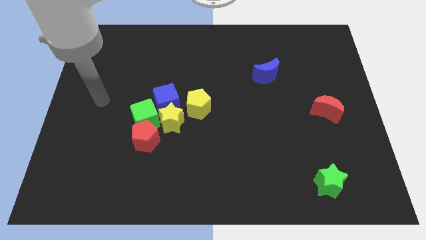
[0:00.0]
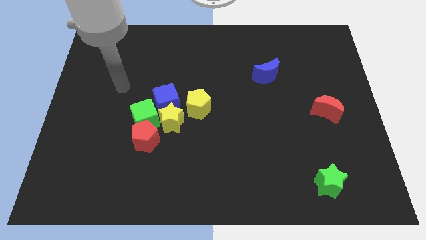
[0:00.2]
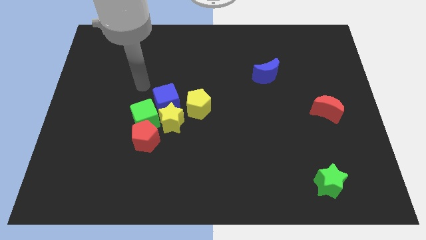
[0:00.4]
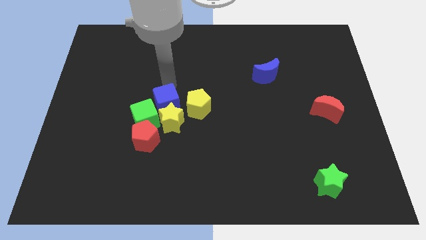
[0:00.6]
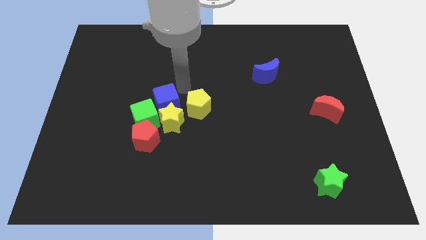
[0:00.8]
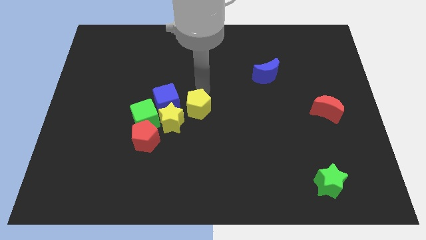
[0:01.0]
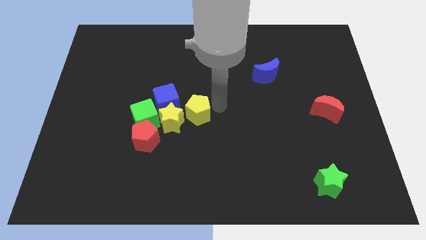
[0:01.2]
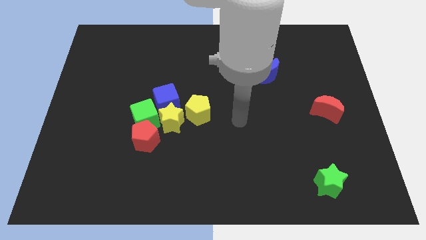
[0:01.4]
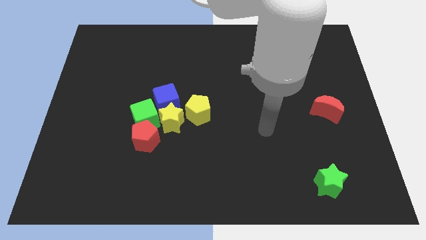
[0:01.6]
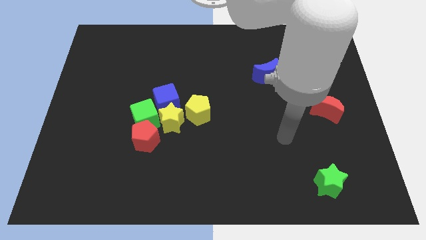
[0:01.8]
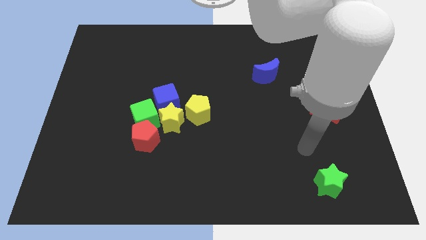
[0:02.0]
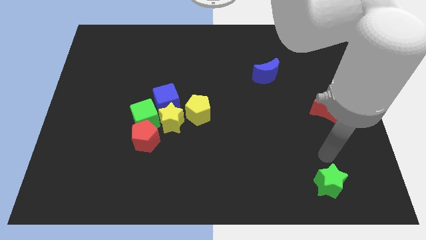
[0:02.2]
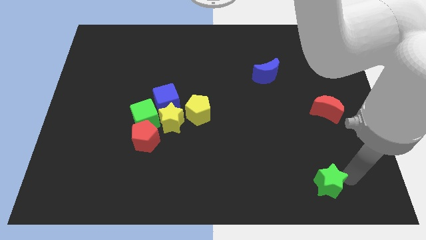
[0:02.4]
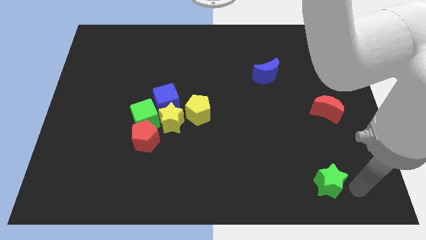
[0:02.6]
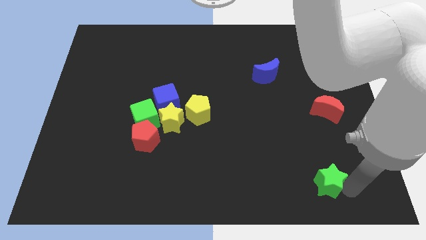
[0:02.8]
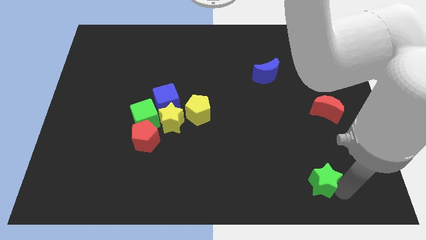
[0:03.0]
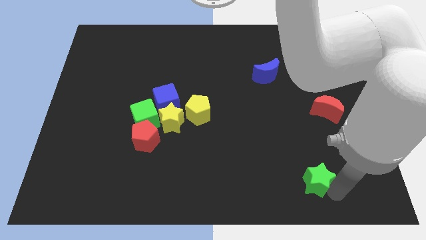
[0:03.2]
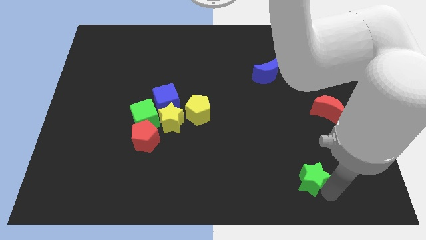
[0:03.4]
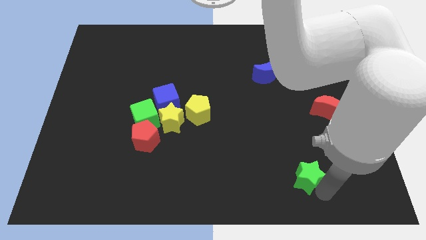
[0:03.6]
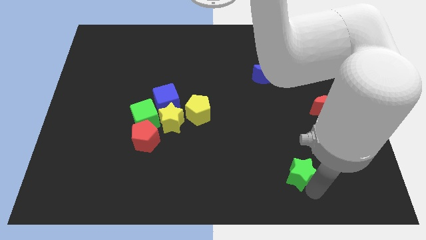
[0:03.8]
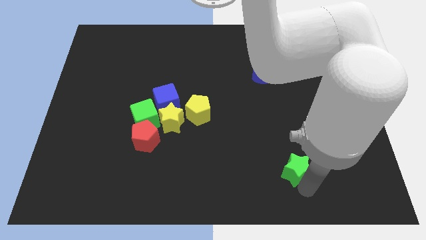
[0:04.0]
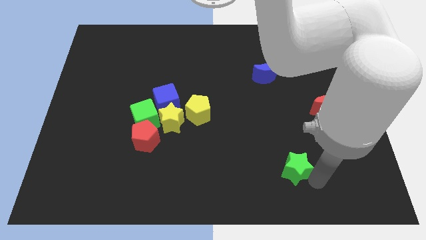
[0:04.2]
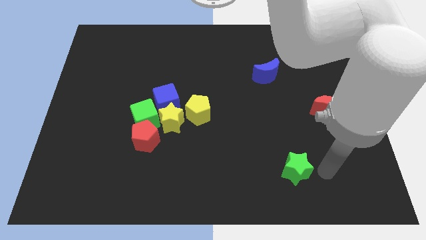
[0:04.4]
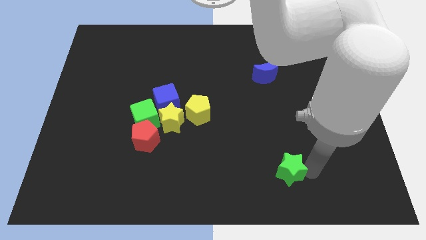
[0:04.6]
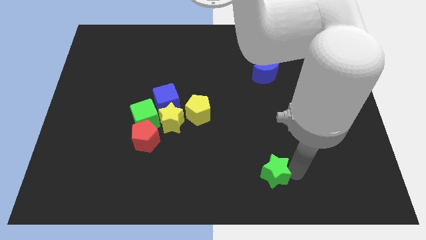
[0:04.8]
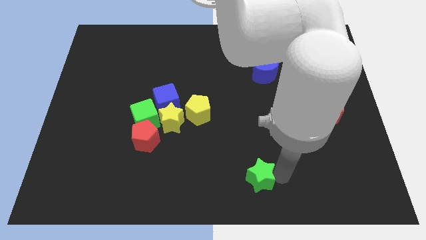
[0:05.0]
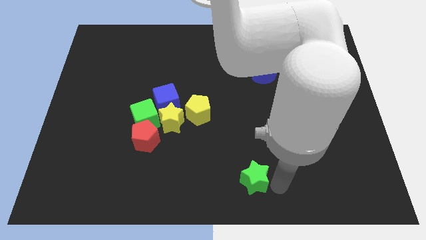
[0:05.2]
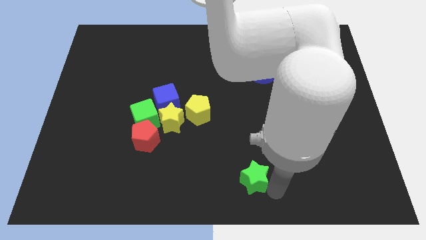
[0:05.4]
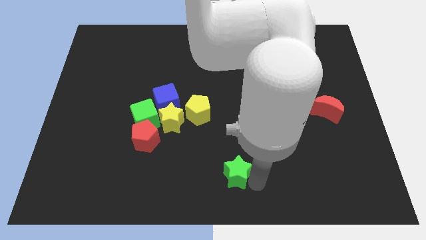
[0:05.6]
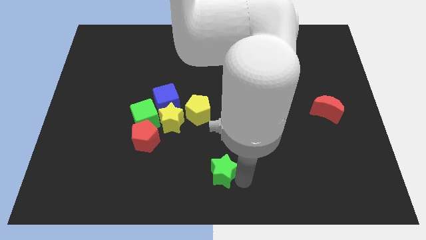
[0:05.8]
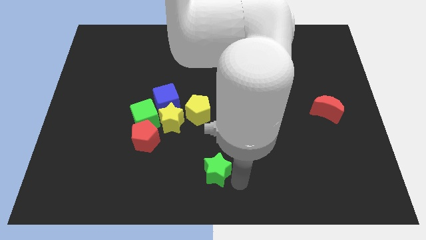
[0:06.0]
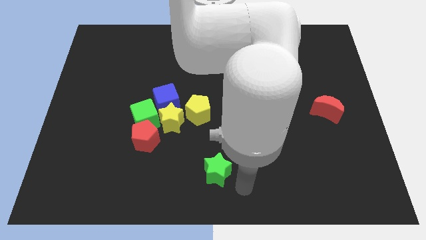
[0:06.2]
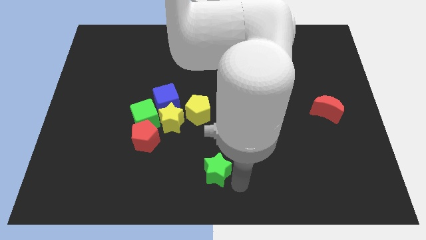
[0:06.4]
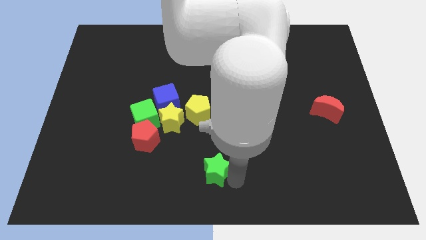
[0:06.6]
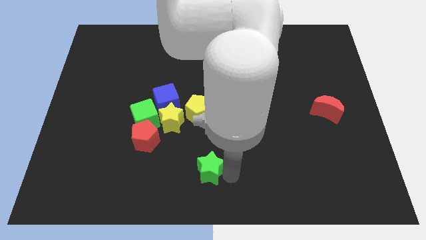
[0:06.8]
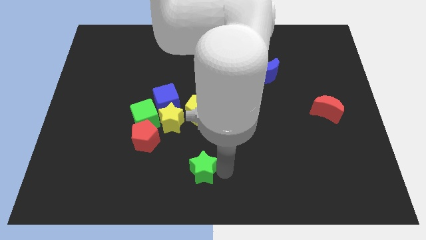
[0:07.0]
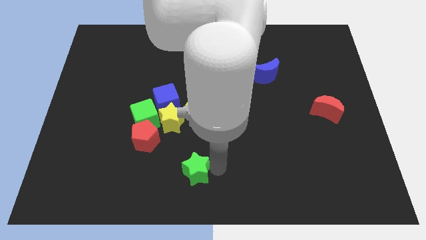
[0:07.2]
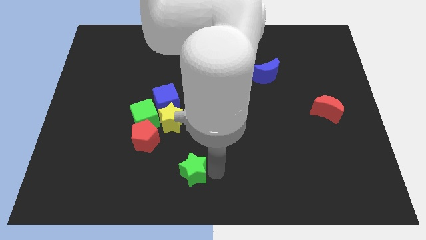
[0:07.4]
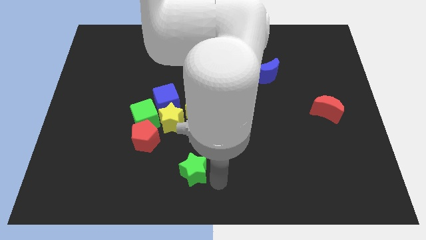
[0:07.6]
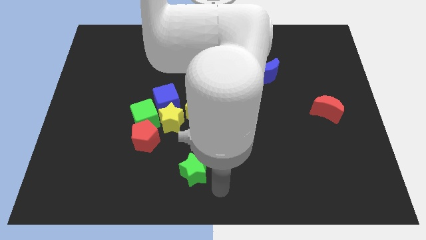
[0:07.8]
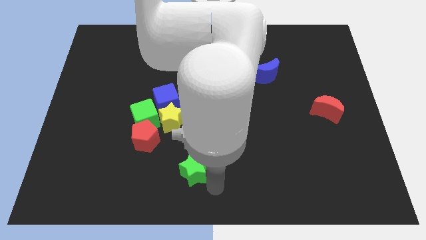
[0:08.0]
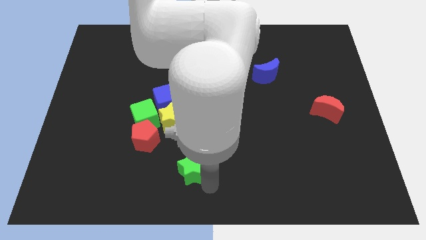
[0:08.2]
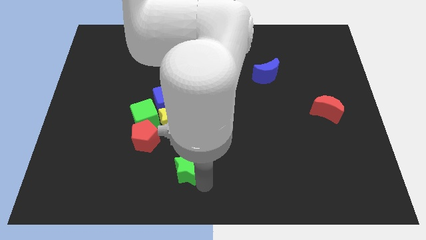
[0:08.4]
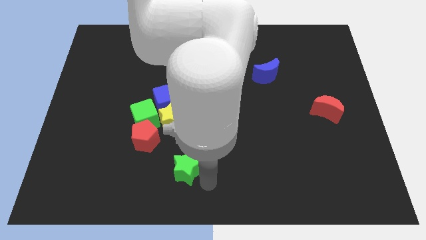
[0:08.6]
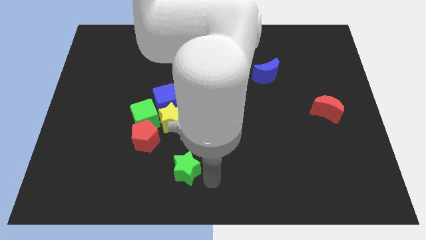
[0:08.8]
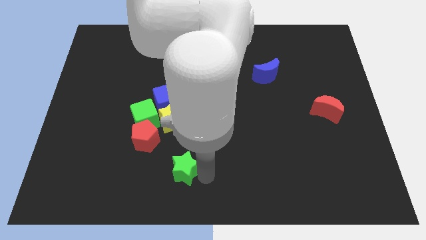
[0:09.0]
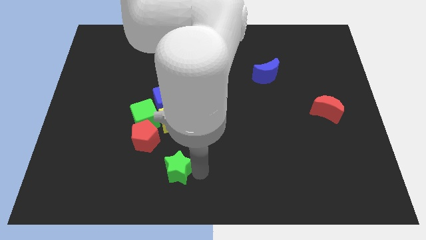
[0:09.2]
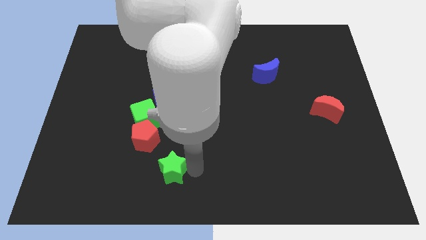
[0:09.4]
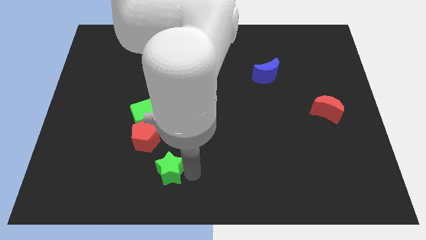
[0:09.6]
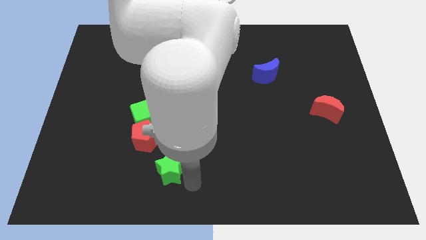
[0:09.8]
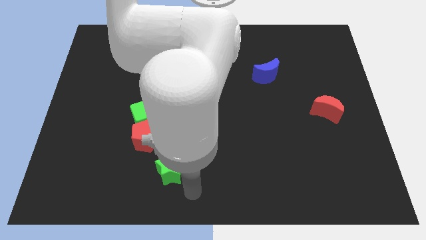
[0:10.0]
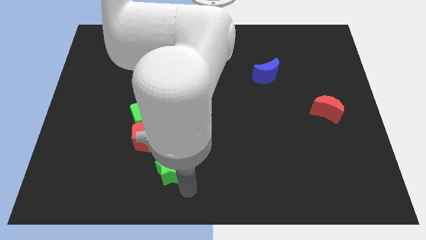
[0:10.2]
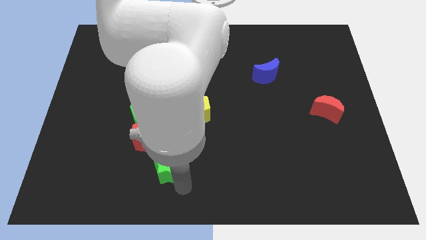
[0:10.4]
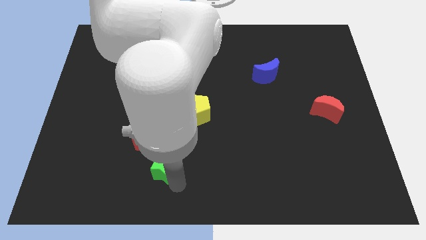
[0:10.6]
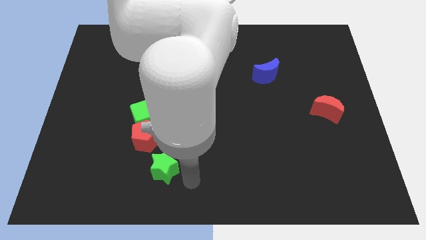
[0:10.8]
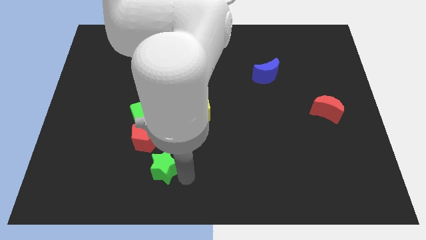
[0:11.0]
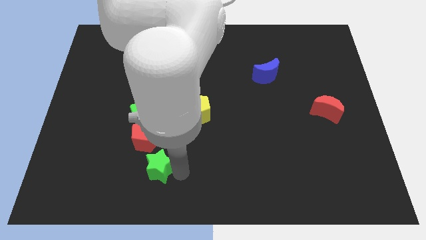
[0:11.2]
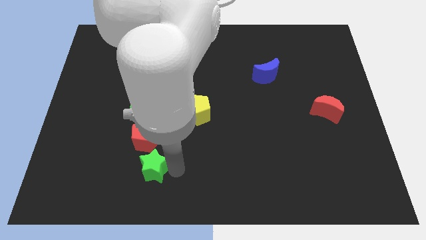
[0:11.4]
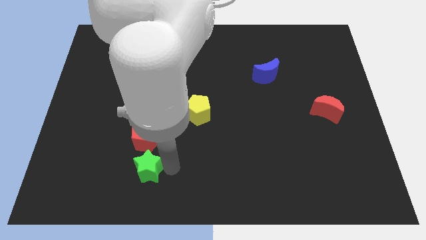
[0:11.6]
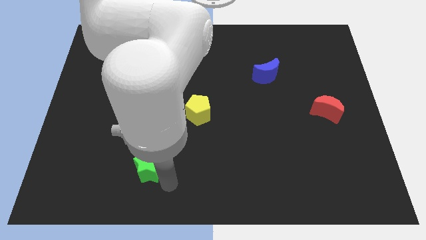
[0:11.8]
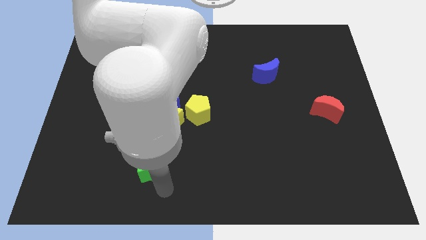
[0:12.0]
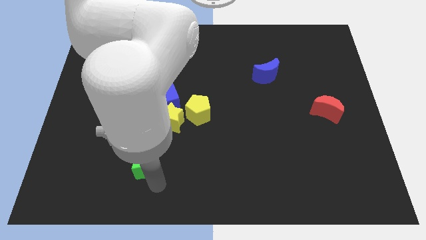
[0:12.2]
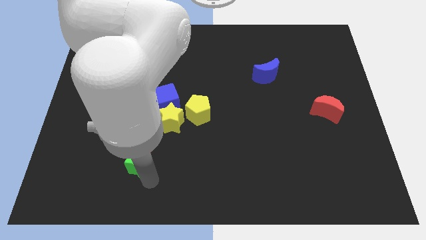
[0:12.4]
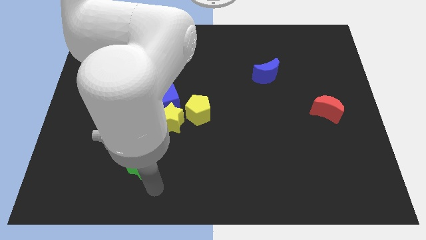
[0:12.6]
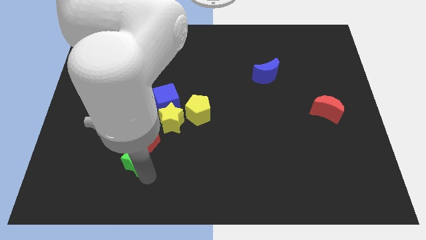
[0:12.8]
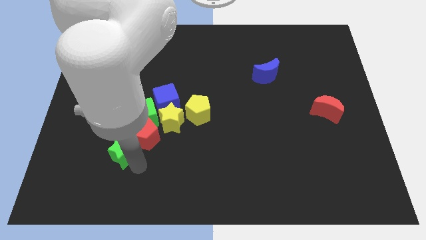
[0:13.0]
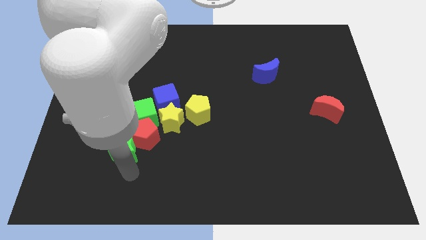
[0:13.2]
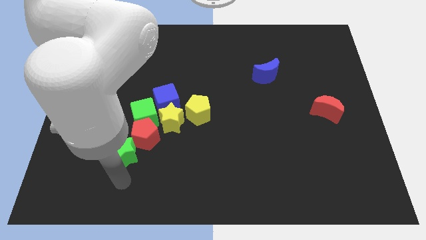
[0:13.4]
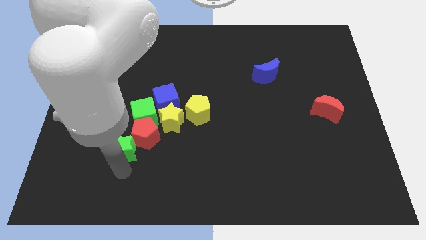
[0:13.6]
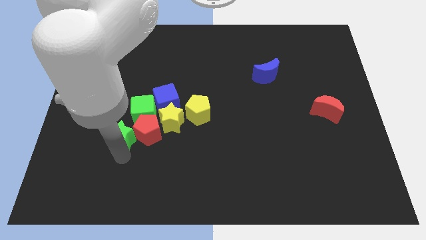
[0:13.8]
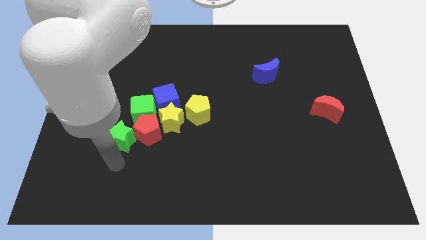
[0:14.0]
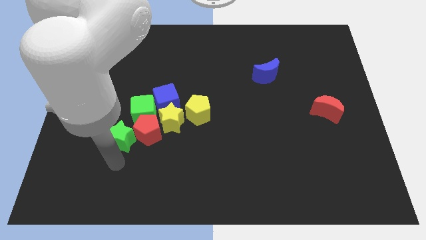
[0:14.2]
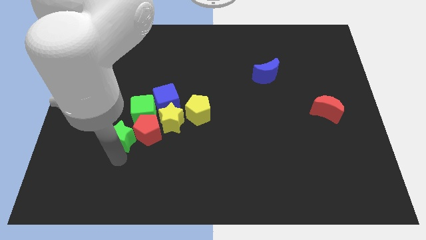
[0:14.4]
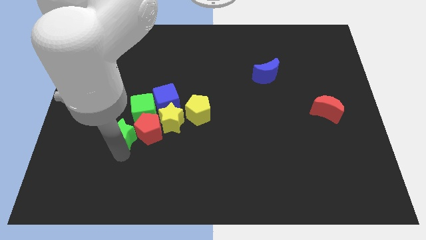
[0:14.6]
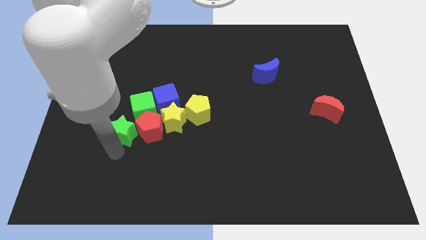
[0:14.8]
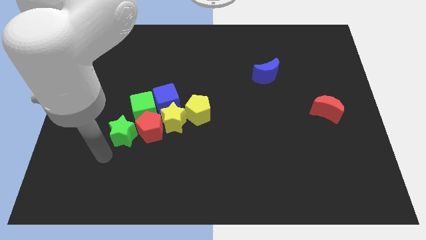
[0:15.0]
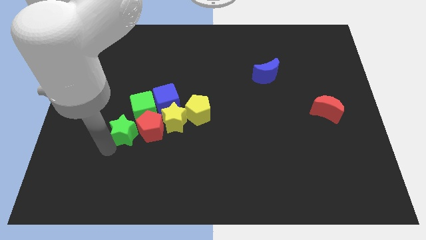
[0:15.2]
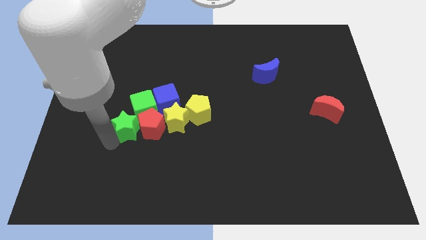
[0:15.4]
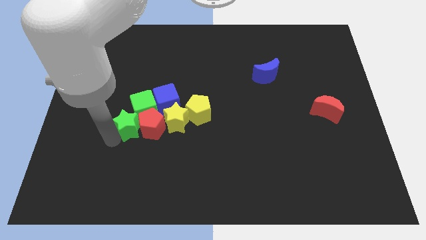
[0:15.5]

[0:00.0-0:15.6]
push the green star towards the green cube
